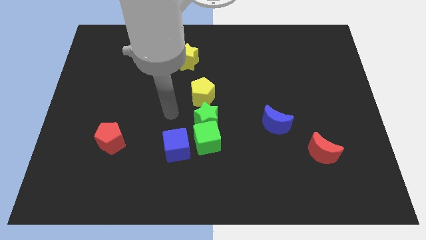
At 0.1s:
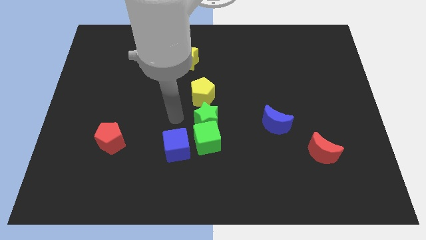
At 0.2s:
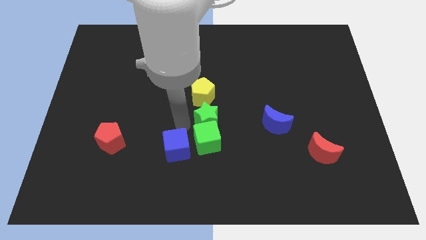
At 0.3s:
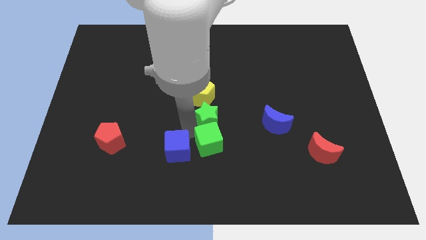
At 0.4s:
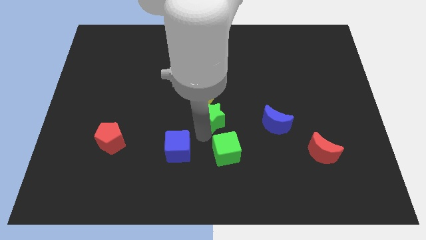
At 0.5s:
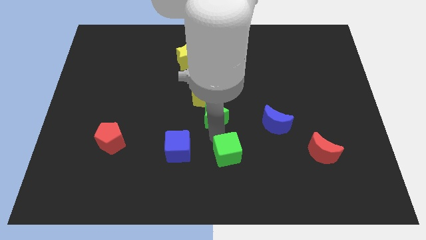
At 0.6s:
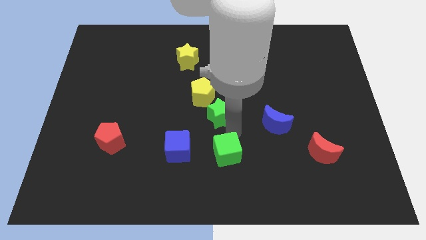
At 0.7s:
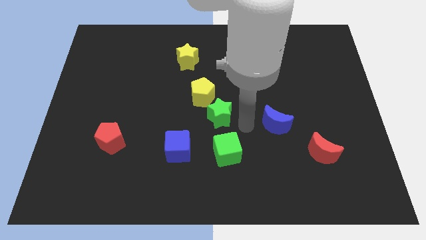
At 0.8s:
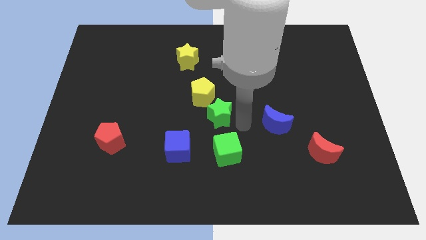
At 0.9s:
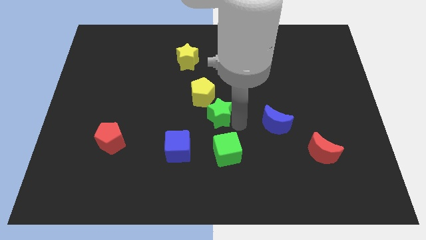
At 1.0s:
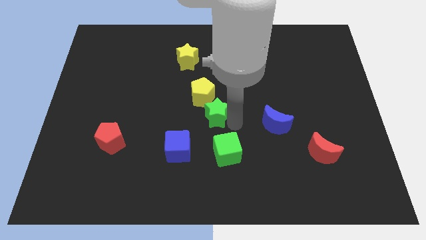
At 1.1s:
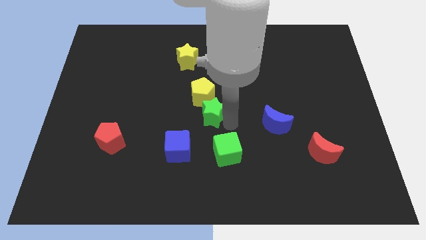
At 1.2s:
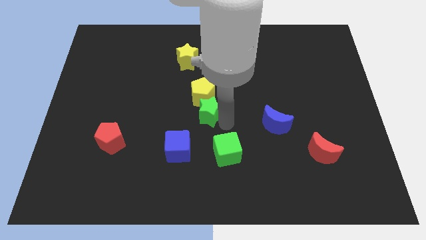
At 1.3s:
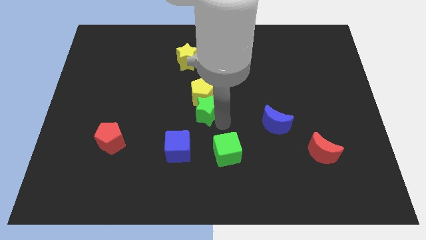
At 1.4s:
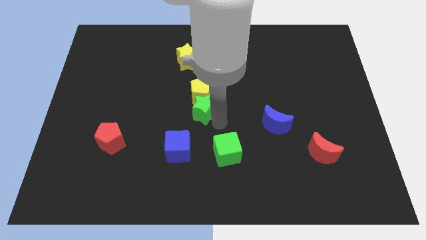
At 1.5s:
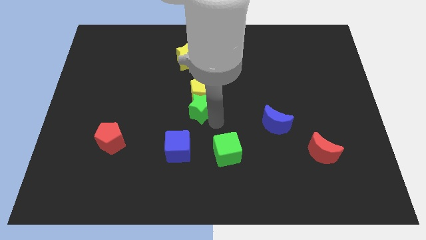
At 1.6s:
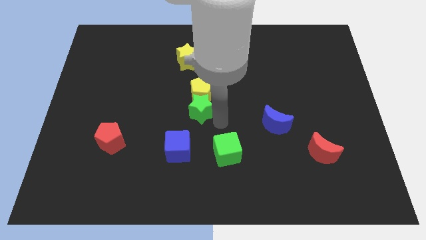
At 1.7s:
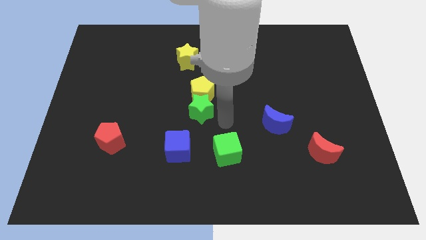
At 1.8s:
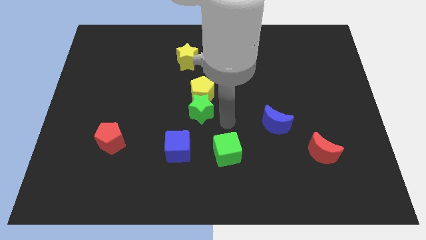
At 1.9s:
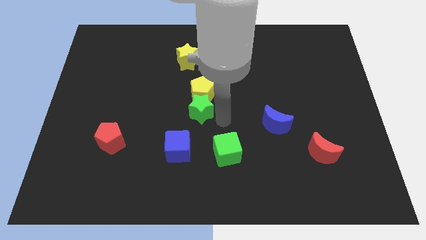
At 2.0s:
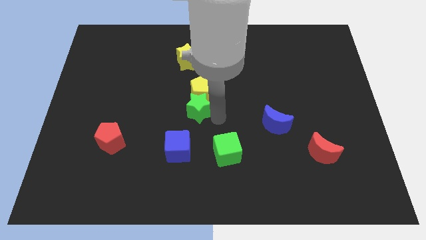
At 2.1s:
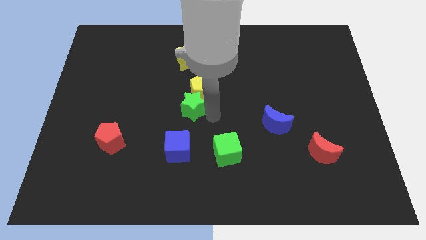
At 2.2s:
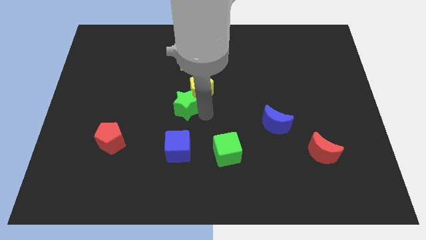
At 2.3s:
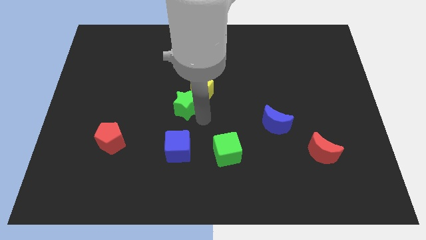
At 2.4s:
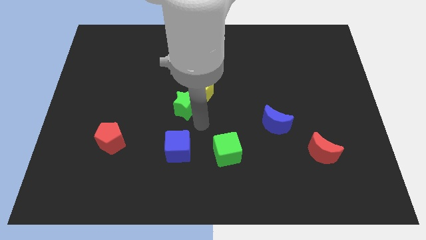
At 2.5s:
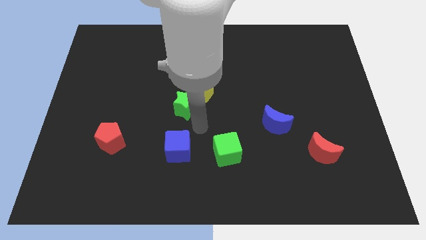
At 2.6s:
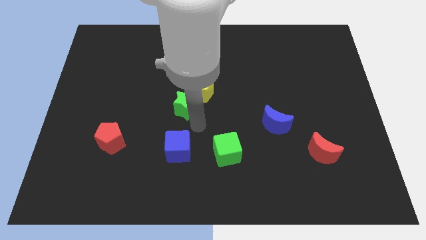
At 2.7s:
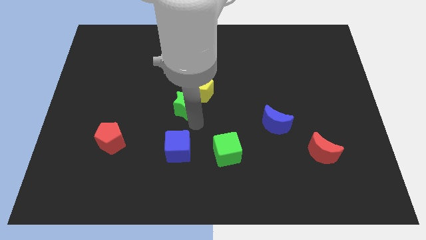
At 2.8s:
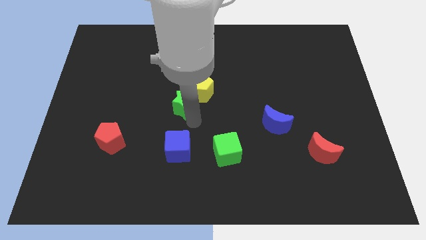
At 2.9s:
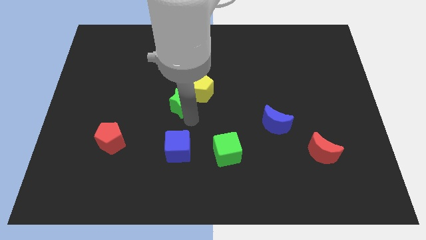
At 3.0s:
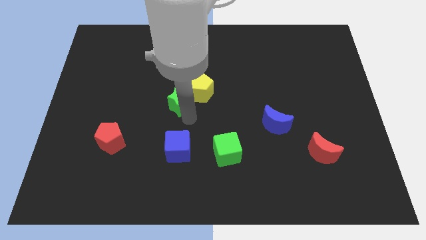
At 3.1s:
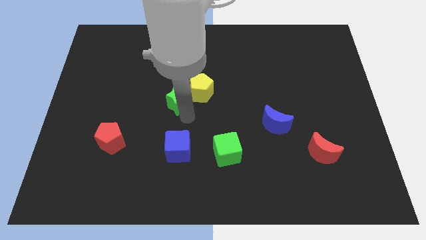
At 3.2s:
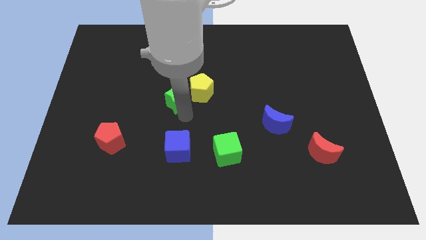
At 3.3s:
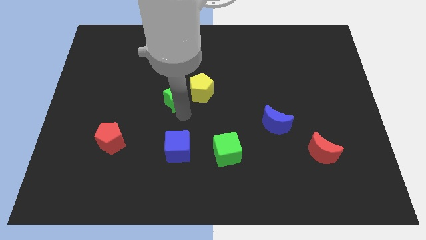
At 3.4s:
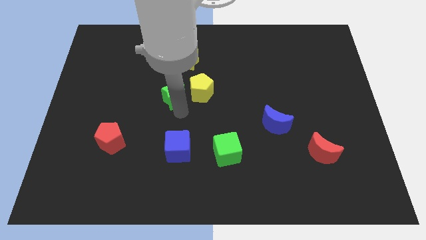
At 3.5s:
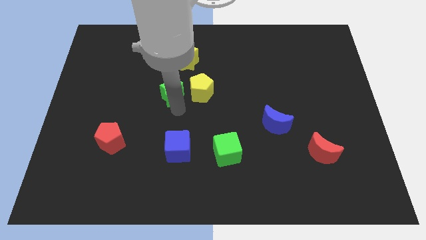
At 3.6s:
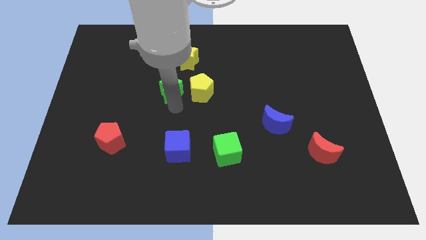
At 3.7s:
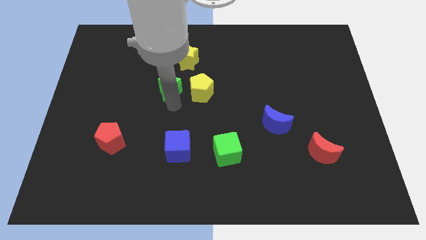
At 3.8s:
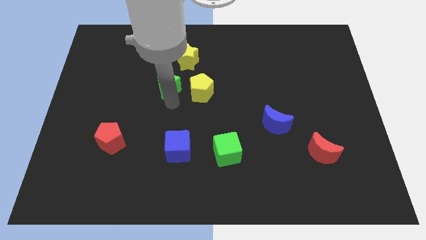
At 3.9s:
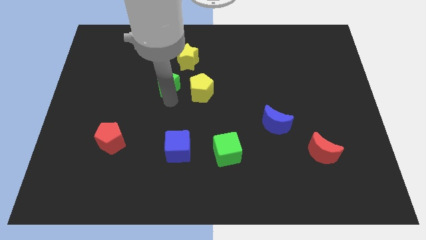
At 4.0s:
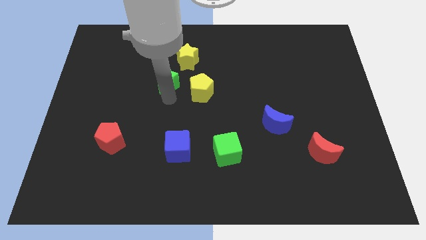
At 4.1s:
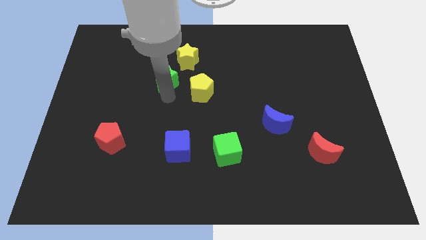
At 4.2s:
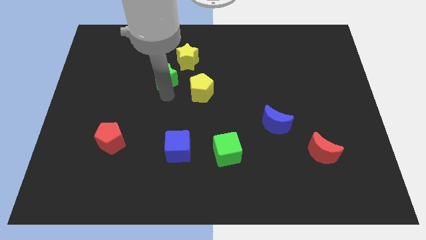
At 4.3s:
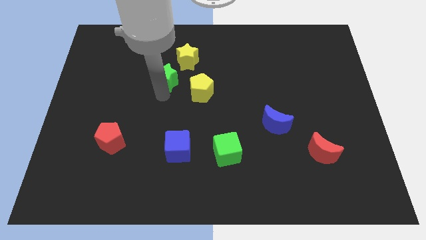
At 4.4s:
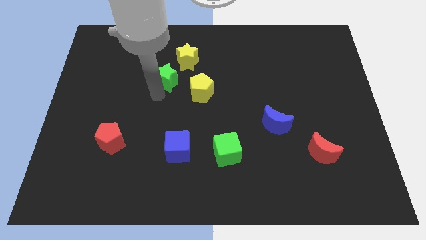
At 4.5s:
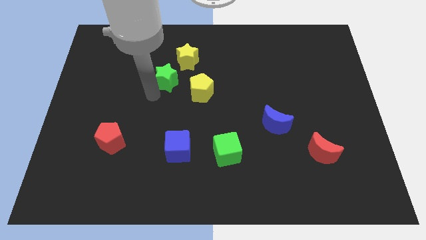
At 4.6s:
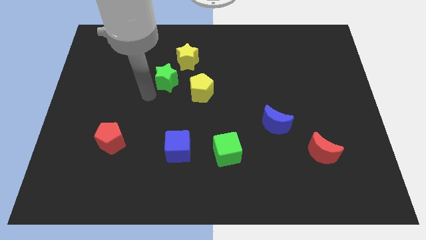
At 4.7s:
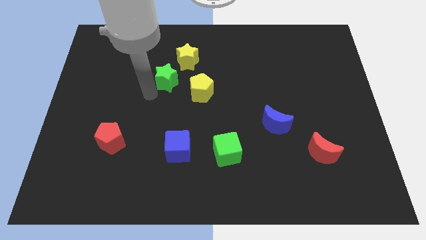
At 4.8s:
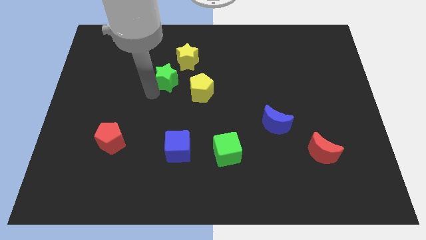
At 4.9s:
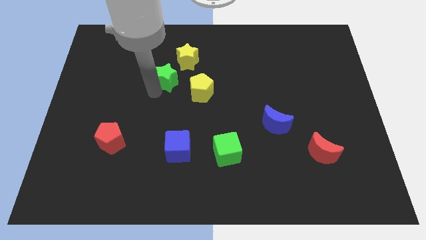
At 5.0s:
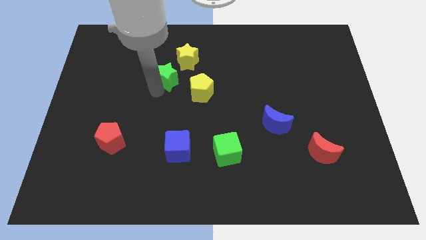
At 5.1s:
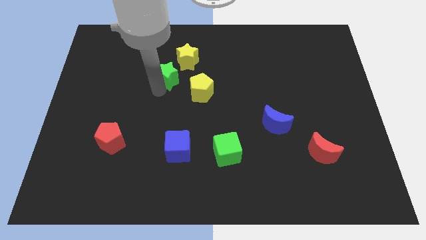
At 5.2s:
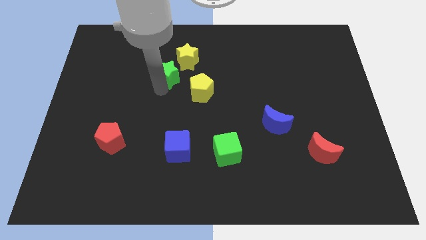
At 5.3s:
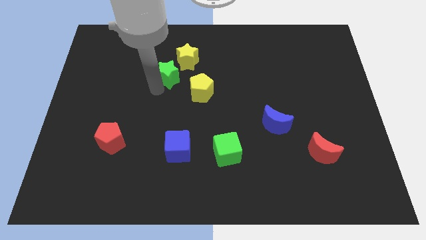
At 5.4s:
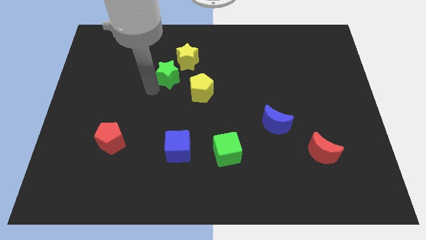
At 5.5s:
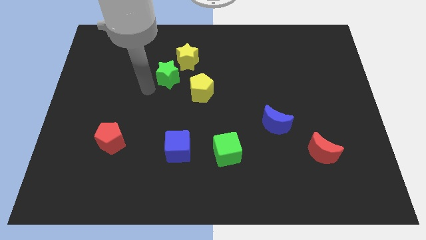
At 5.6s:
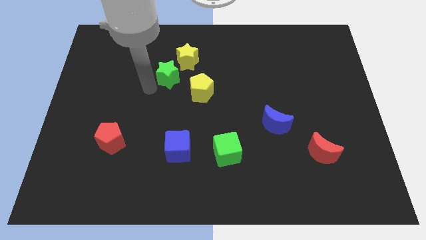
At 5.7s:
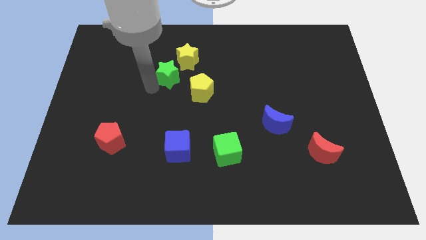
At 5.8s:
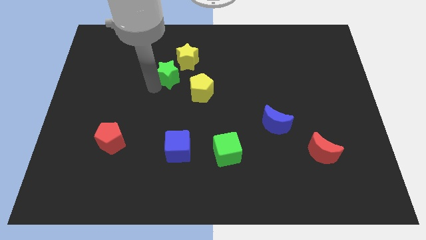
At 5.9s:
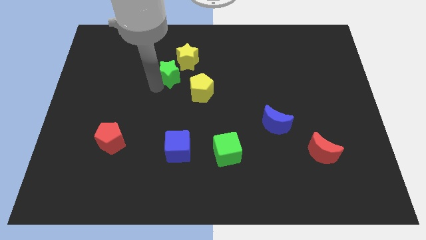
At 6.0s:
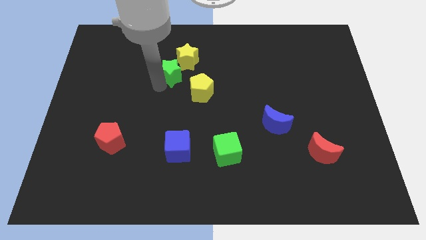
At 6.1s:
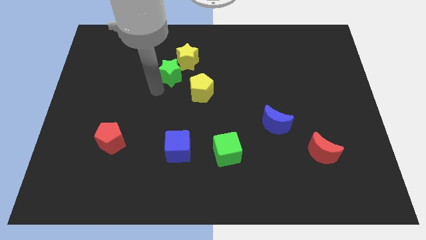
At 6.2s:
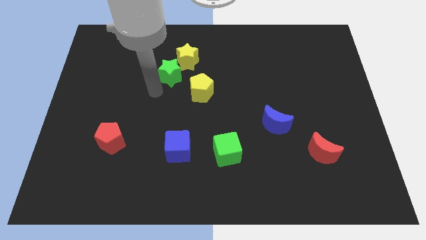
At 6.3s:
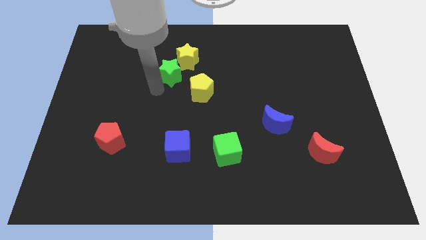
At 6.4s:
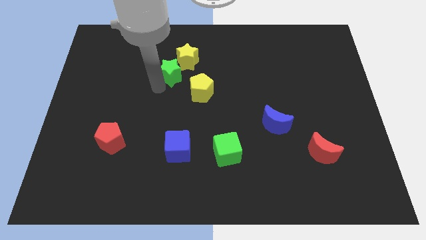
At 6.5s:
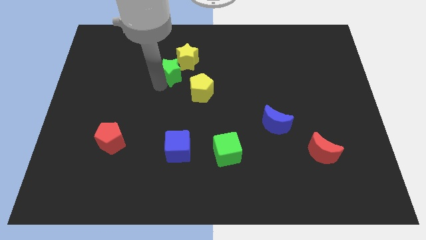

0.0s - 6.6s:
move the green star next to the yellow star

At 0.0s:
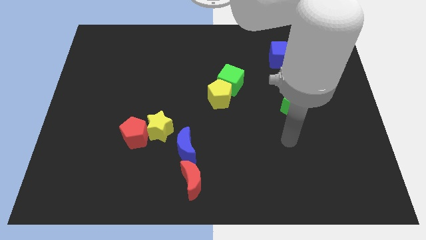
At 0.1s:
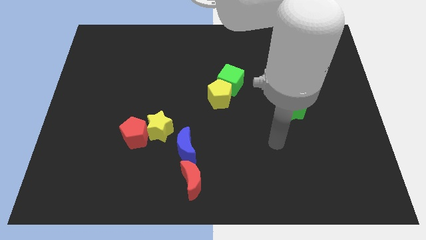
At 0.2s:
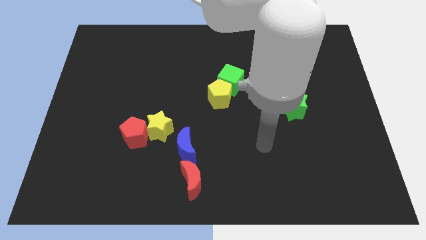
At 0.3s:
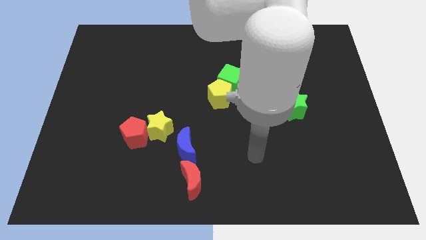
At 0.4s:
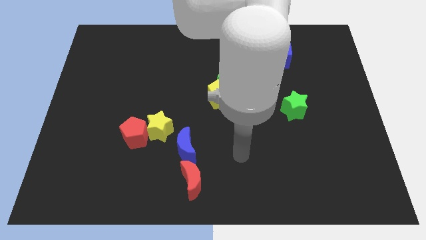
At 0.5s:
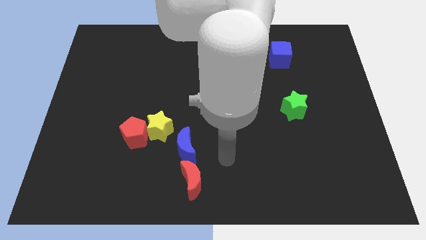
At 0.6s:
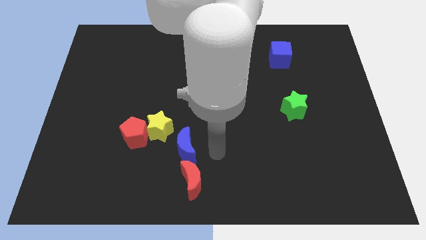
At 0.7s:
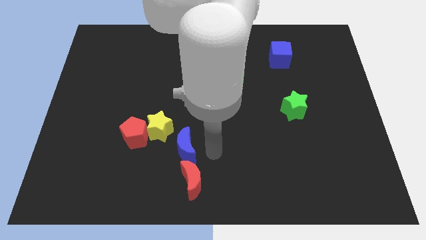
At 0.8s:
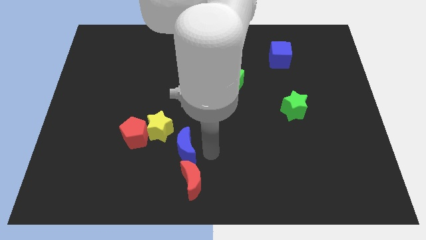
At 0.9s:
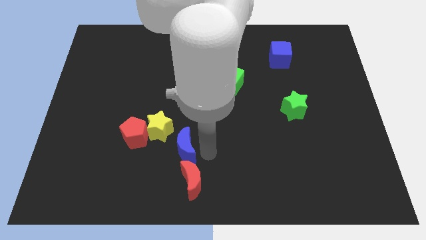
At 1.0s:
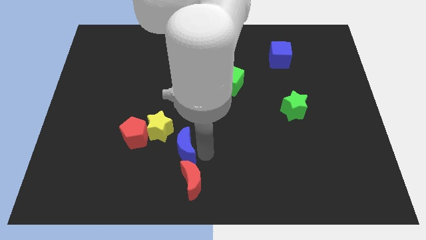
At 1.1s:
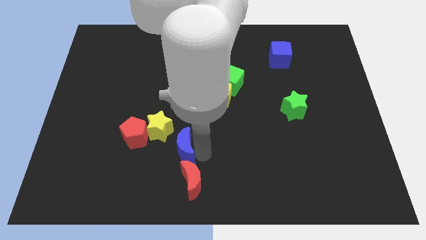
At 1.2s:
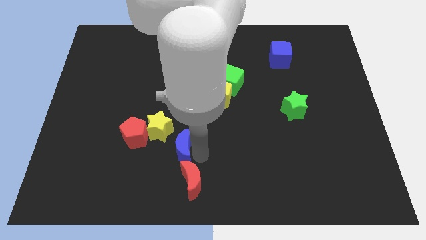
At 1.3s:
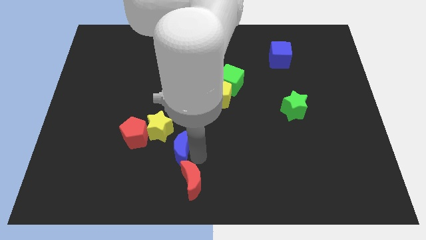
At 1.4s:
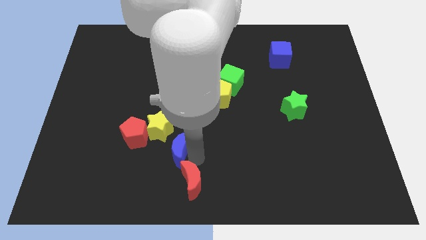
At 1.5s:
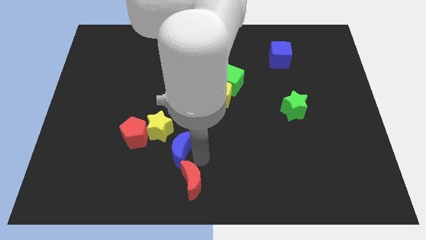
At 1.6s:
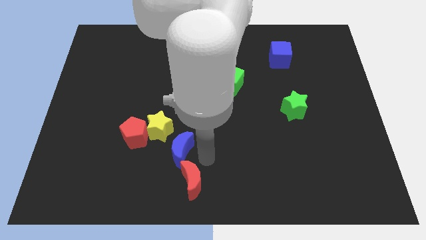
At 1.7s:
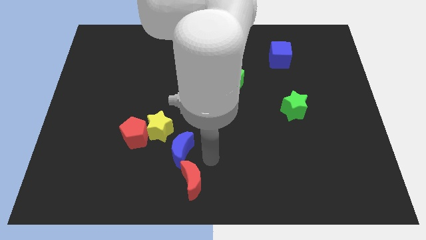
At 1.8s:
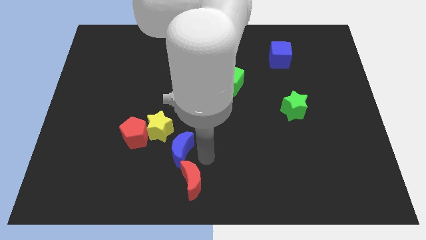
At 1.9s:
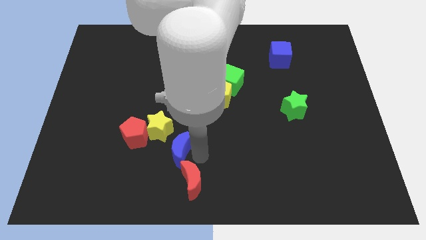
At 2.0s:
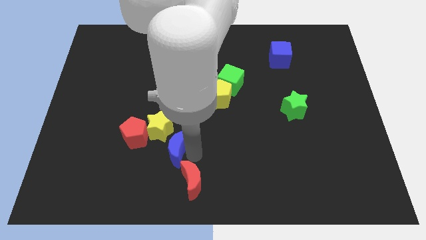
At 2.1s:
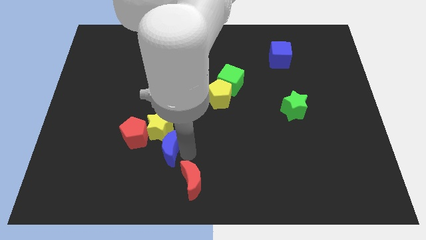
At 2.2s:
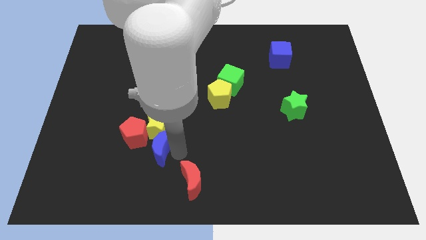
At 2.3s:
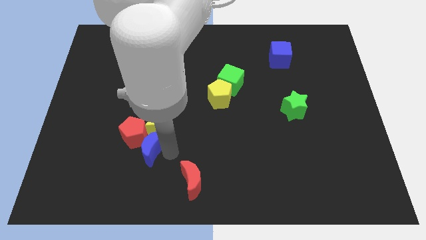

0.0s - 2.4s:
move the blue moon to the red pentagon
